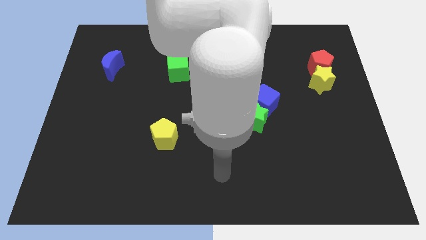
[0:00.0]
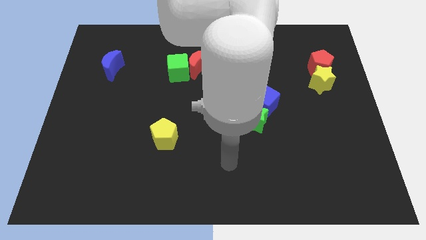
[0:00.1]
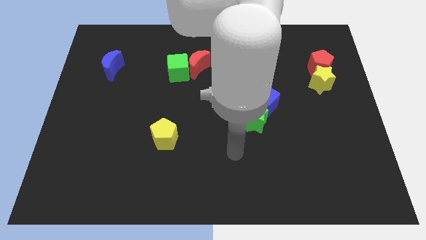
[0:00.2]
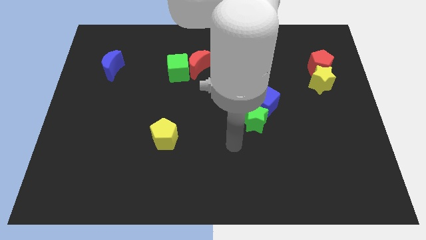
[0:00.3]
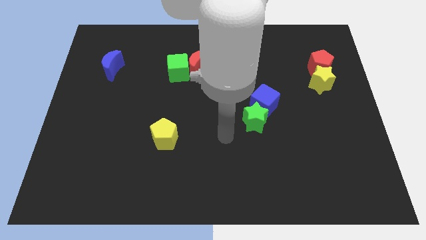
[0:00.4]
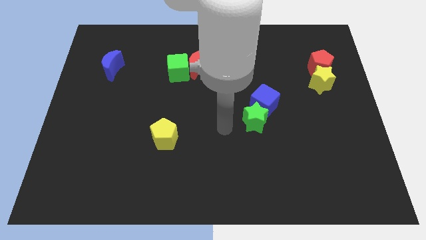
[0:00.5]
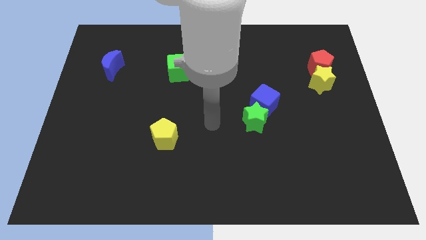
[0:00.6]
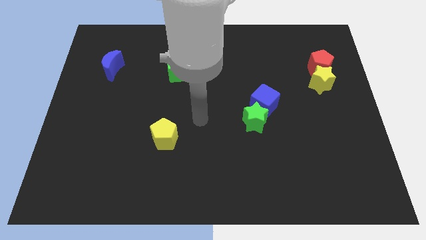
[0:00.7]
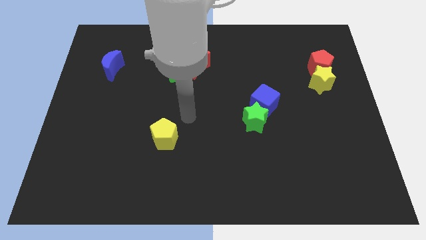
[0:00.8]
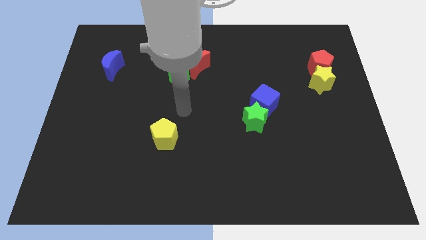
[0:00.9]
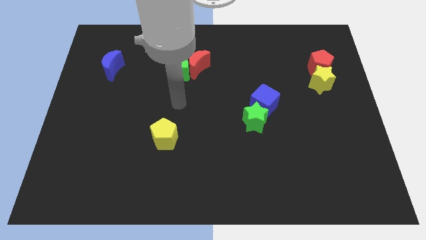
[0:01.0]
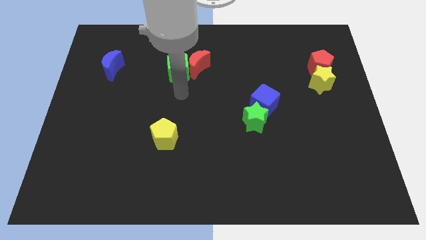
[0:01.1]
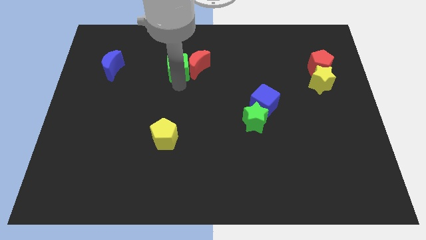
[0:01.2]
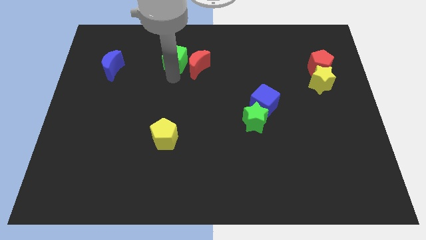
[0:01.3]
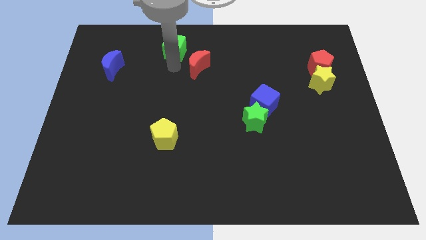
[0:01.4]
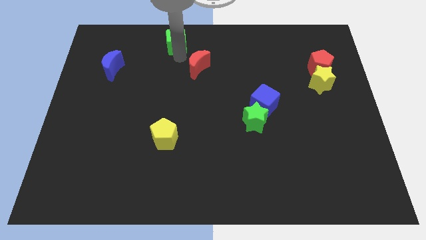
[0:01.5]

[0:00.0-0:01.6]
move the red moon away from the green cube

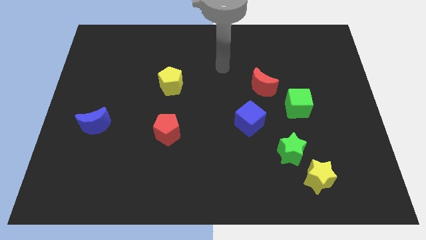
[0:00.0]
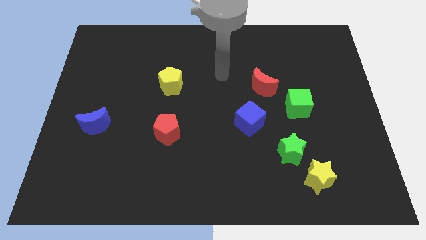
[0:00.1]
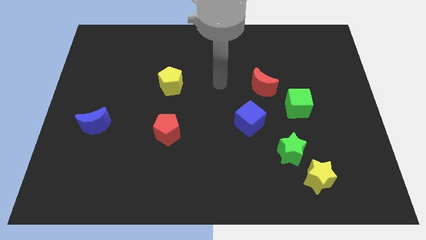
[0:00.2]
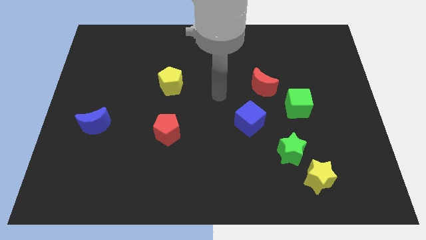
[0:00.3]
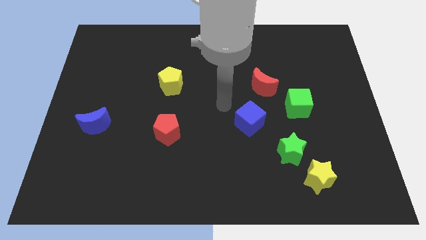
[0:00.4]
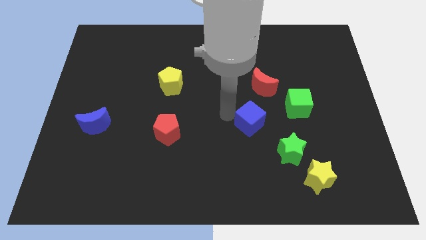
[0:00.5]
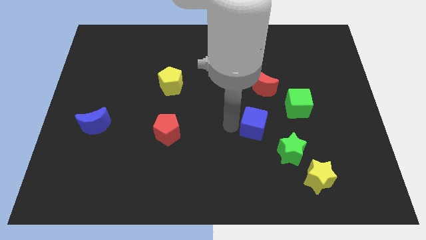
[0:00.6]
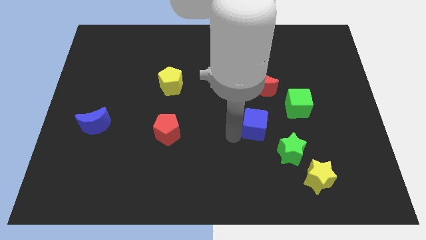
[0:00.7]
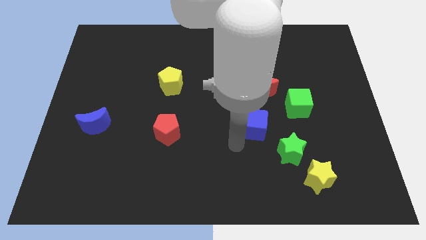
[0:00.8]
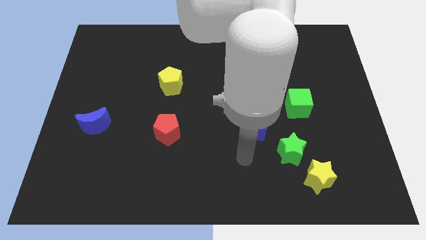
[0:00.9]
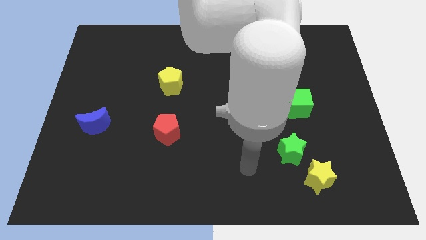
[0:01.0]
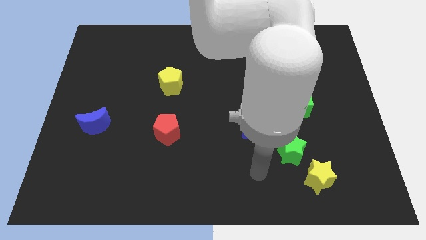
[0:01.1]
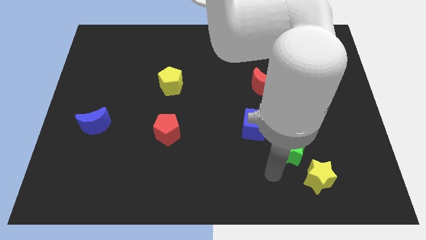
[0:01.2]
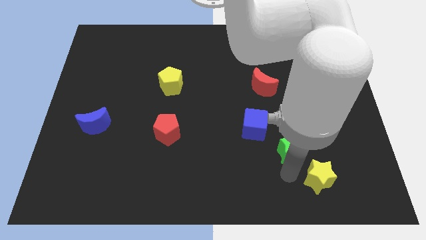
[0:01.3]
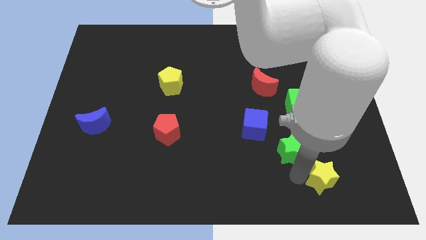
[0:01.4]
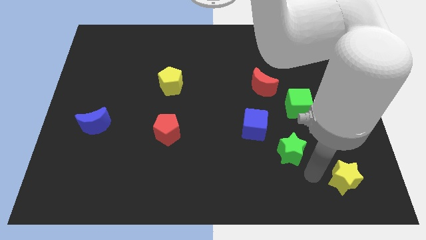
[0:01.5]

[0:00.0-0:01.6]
move the green star away from the yellow star

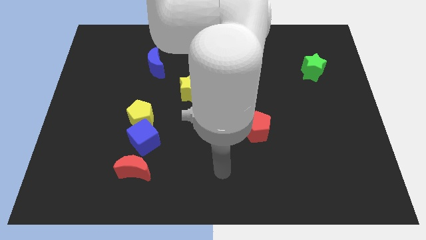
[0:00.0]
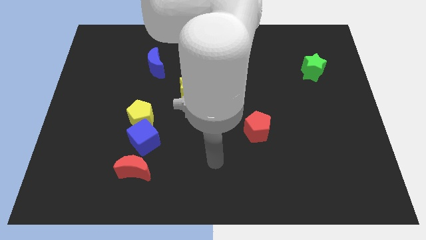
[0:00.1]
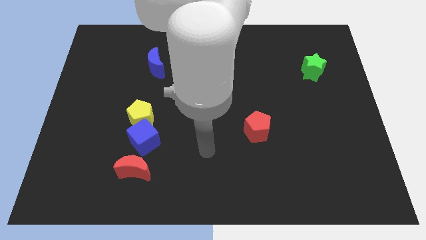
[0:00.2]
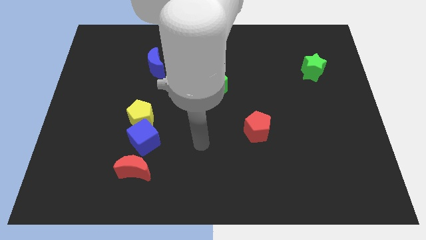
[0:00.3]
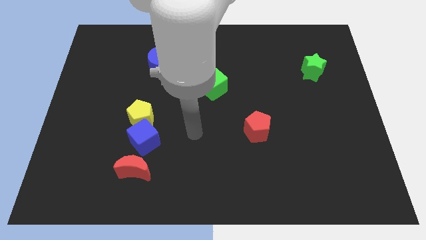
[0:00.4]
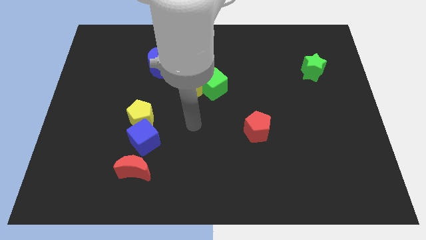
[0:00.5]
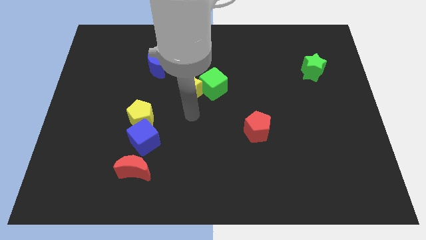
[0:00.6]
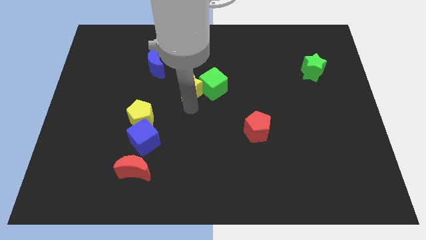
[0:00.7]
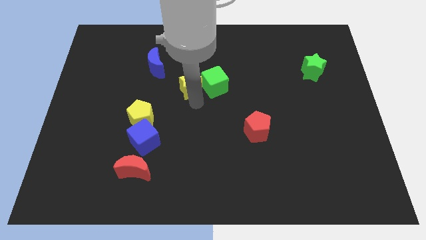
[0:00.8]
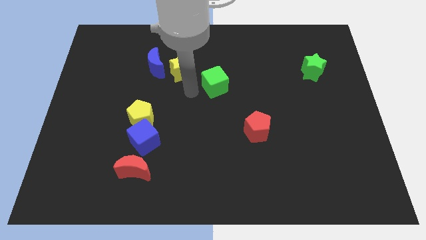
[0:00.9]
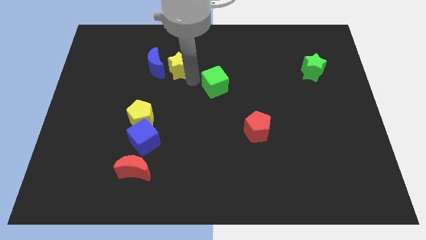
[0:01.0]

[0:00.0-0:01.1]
separate the green cube from the yellow star

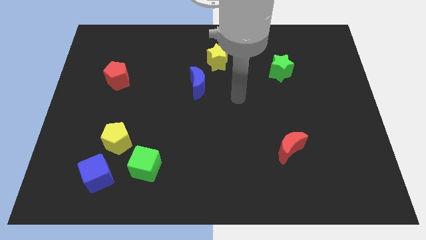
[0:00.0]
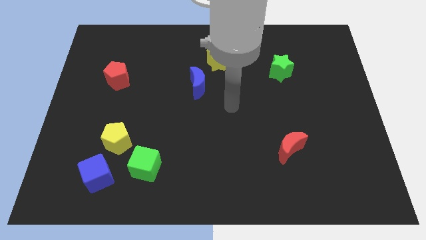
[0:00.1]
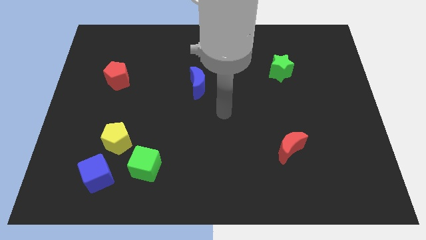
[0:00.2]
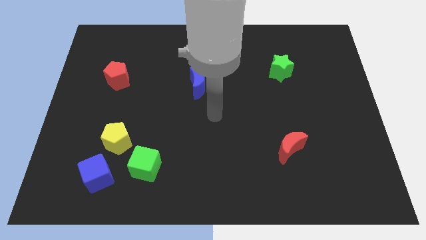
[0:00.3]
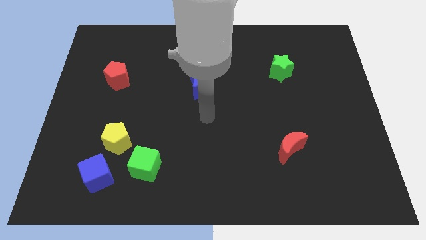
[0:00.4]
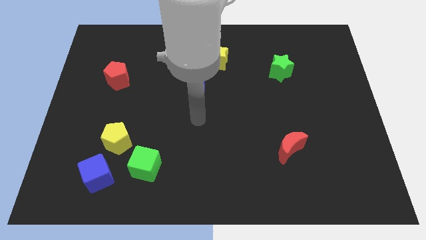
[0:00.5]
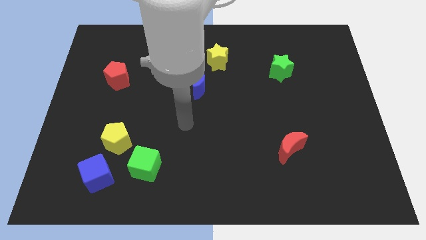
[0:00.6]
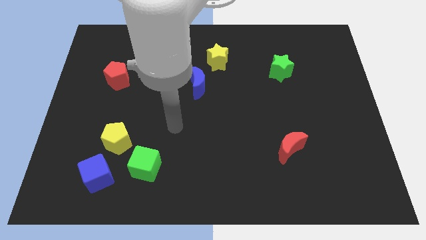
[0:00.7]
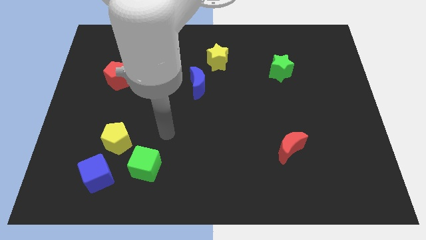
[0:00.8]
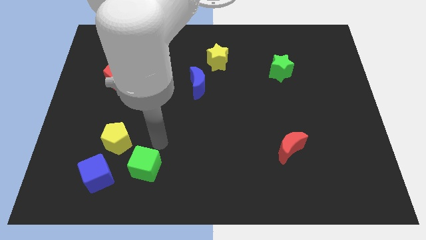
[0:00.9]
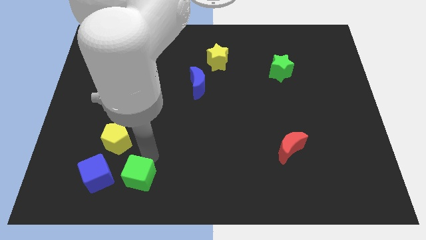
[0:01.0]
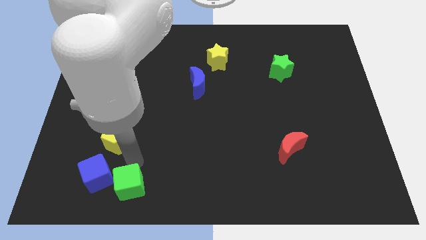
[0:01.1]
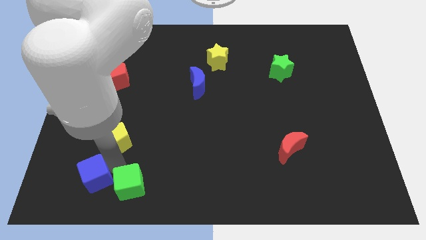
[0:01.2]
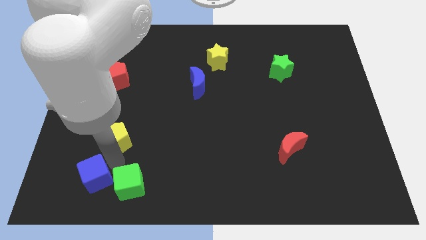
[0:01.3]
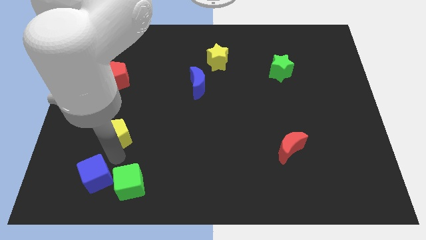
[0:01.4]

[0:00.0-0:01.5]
separate the yellow pentagon from the blue cube and green cube

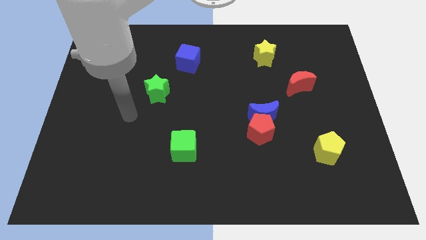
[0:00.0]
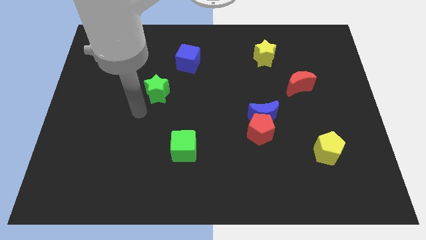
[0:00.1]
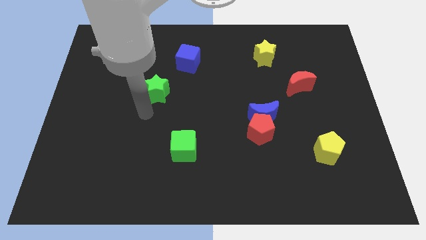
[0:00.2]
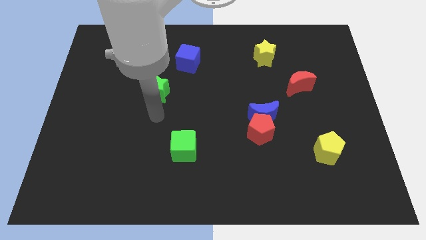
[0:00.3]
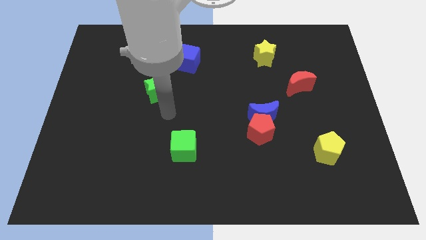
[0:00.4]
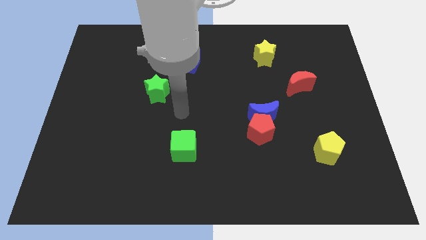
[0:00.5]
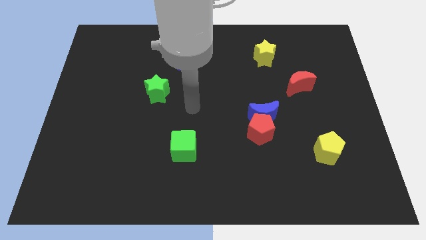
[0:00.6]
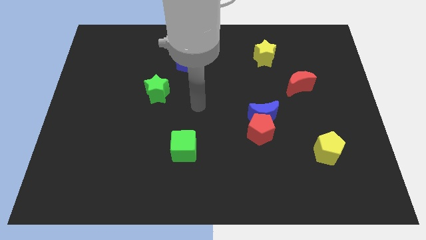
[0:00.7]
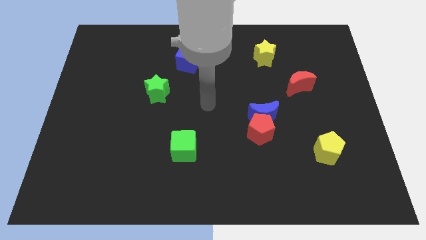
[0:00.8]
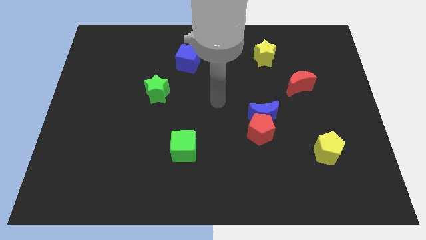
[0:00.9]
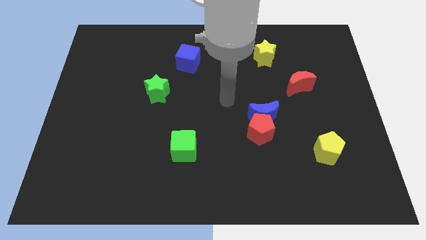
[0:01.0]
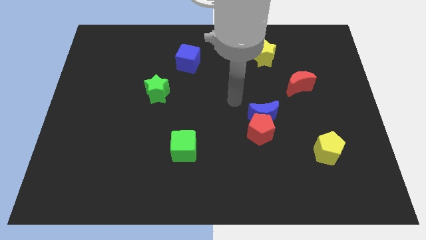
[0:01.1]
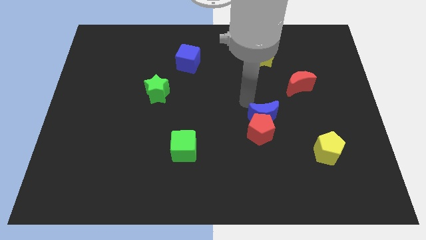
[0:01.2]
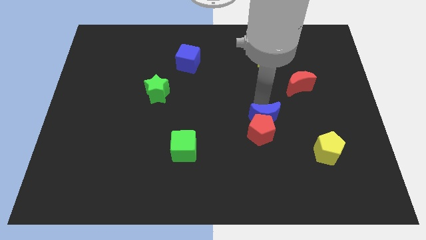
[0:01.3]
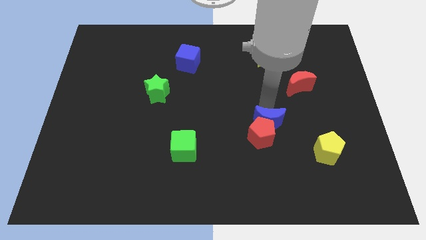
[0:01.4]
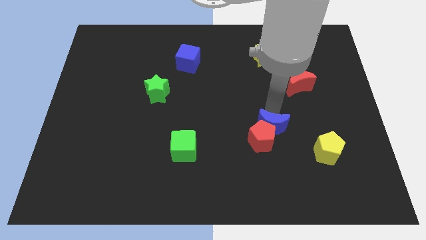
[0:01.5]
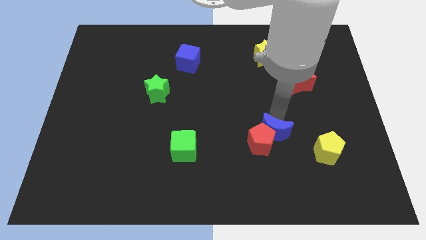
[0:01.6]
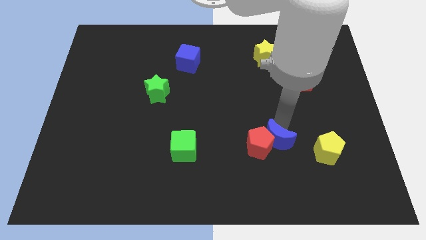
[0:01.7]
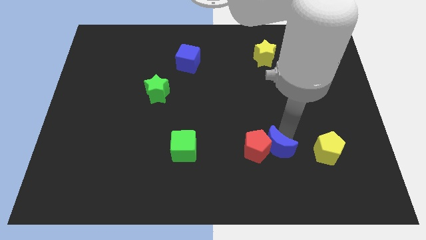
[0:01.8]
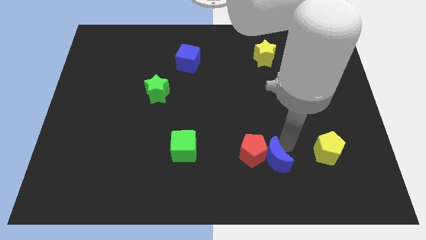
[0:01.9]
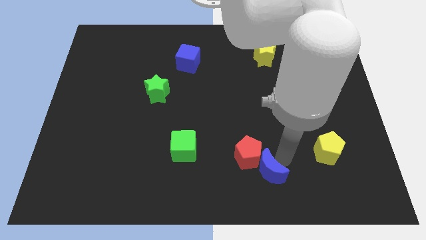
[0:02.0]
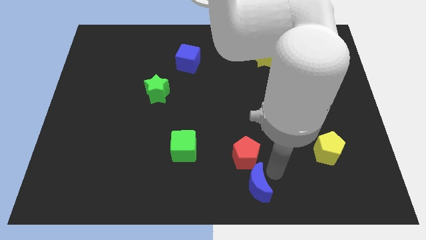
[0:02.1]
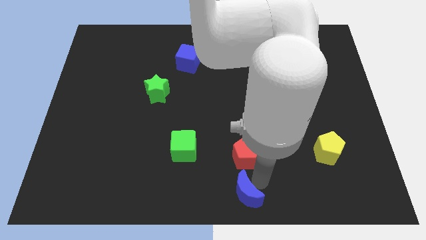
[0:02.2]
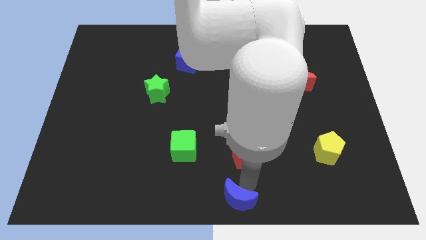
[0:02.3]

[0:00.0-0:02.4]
move the red pentagon away from the blue moon

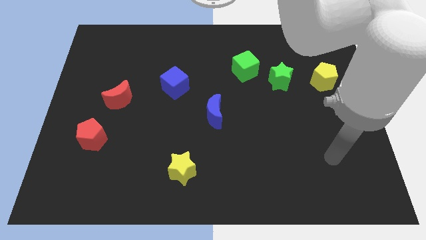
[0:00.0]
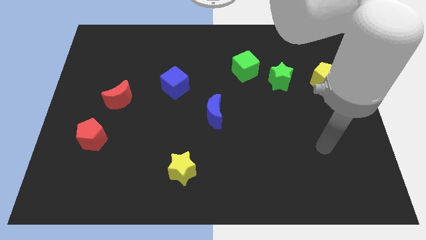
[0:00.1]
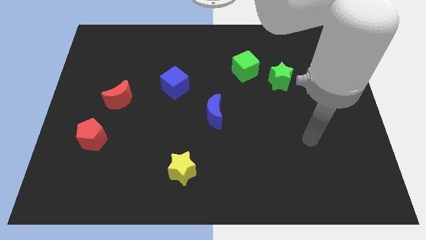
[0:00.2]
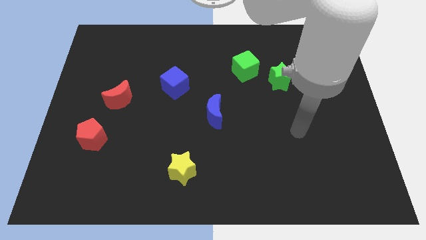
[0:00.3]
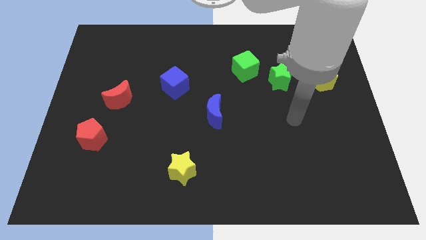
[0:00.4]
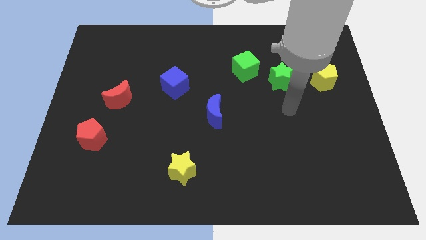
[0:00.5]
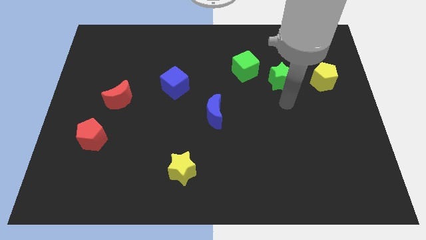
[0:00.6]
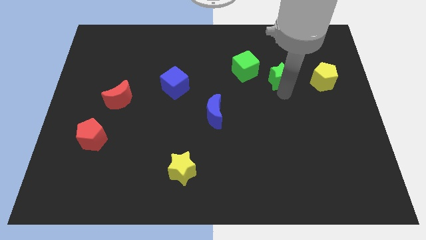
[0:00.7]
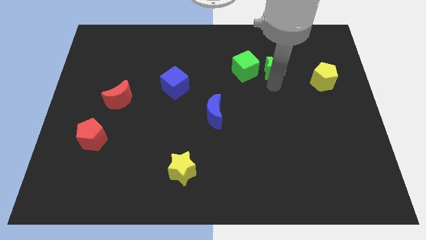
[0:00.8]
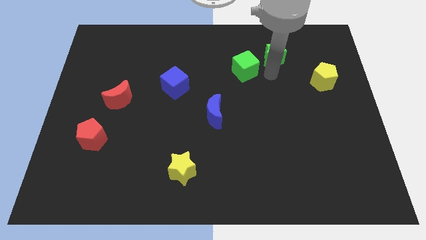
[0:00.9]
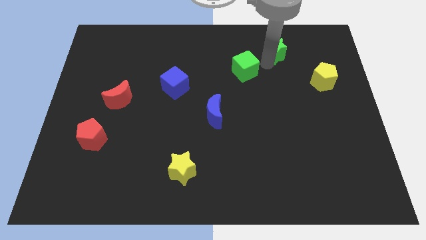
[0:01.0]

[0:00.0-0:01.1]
separate the green cube from the green star
